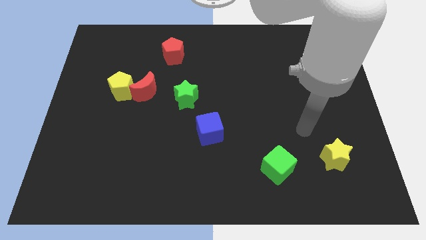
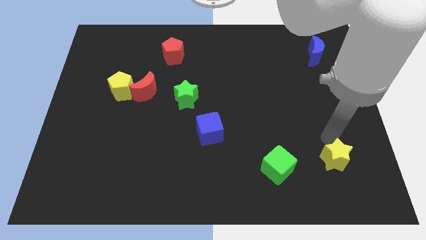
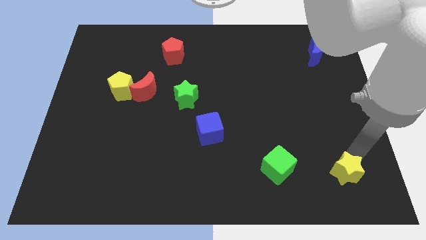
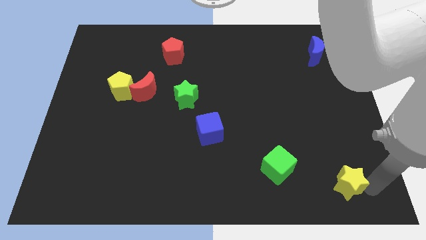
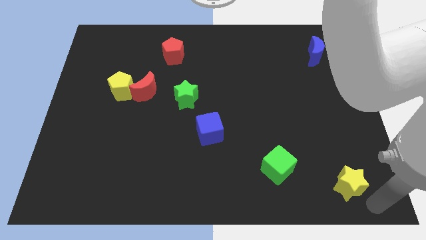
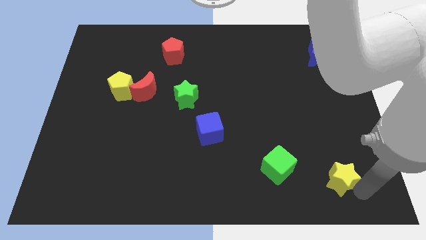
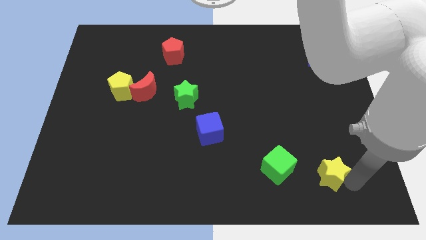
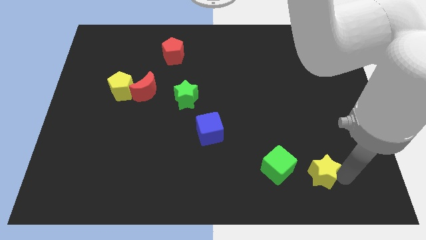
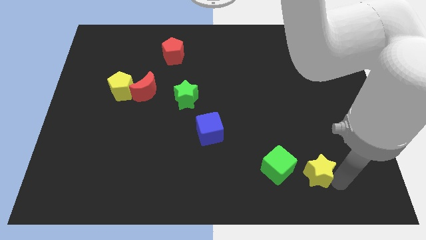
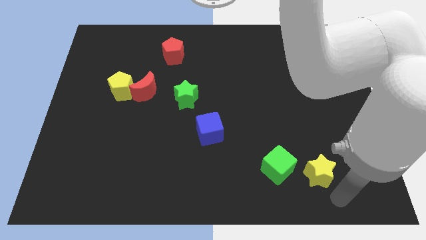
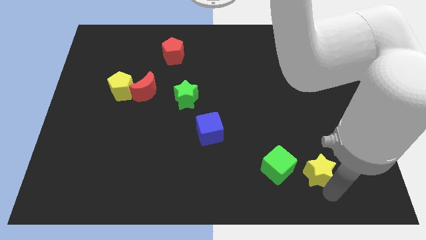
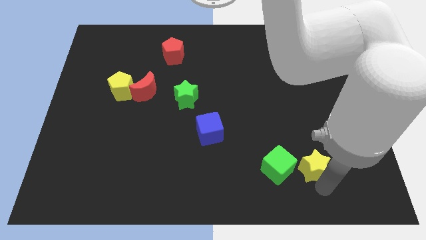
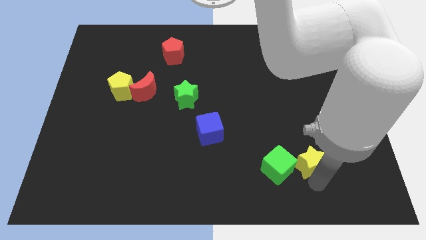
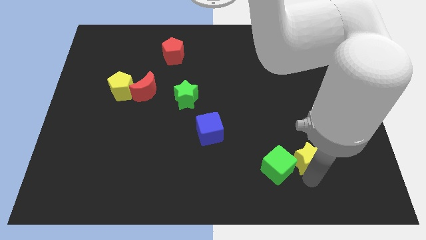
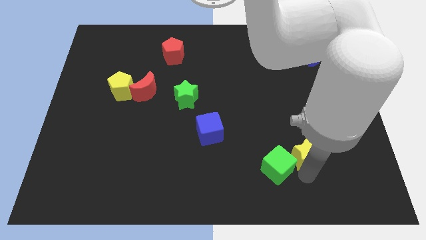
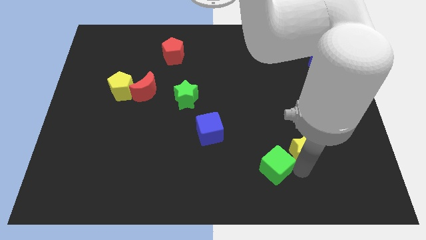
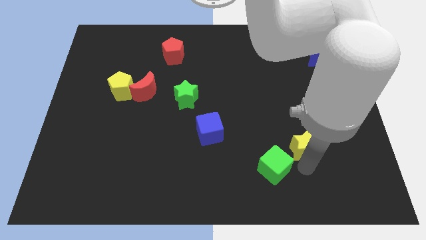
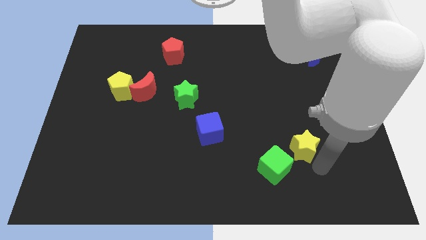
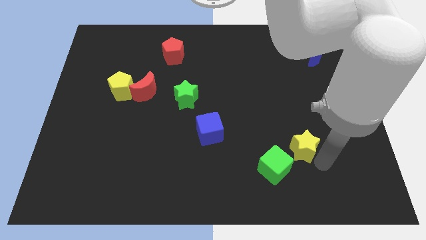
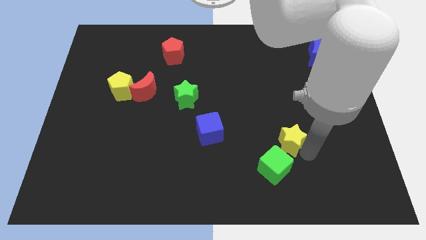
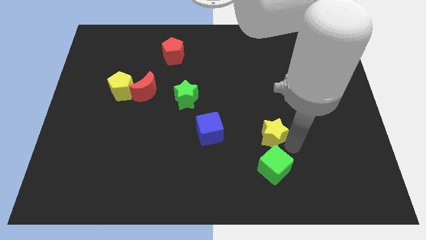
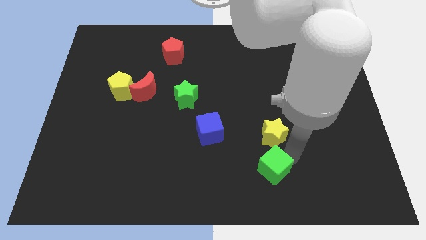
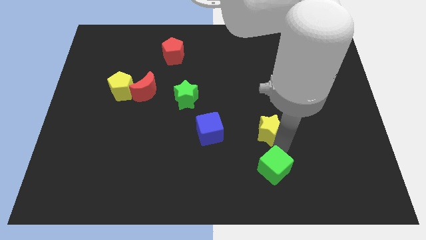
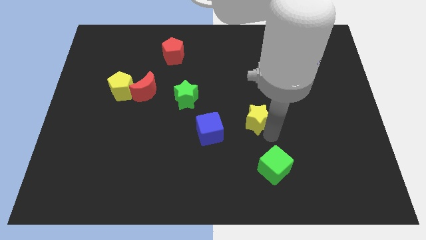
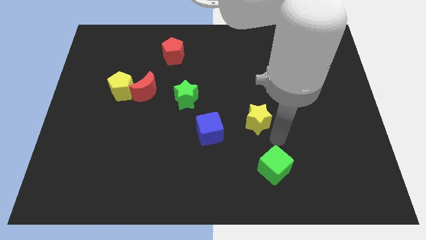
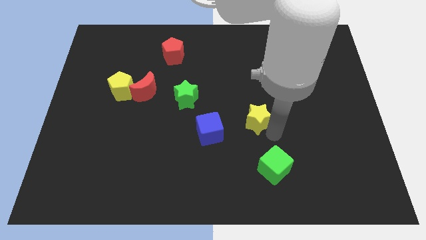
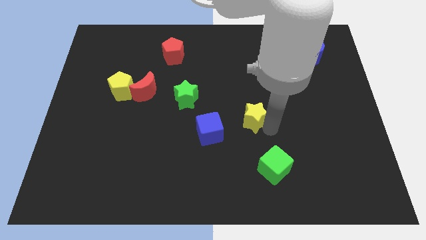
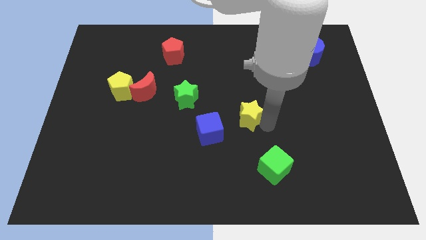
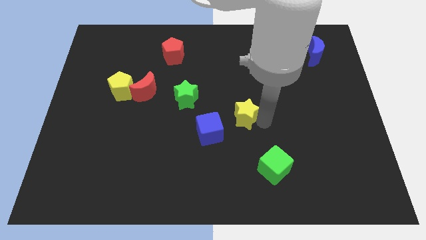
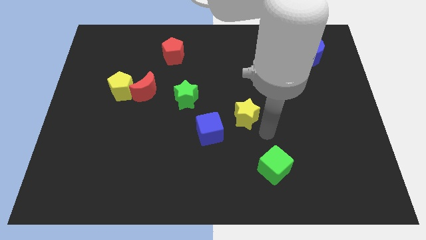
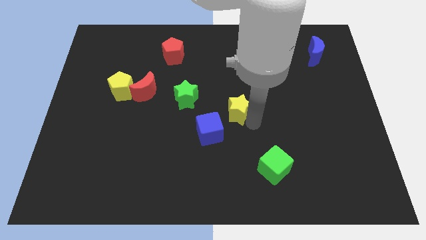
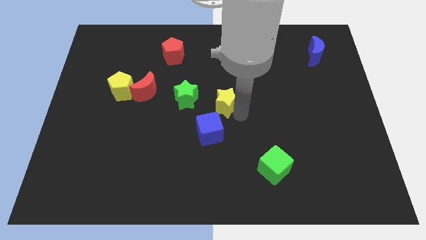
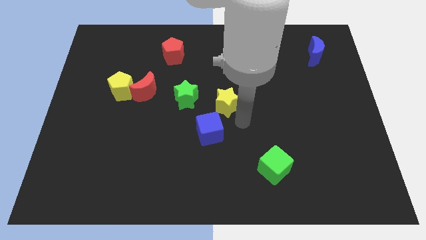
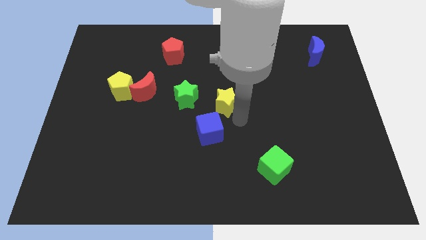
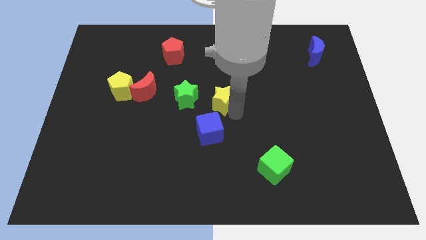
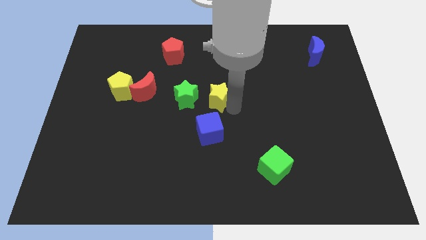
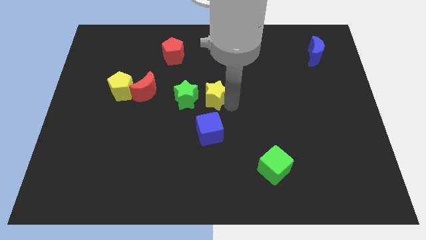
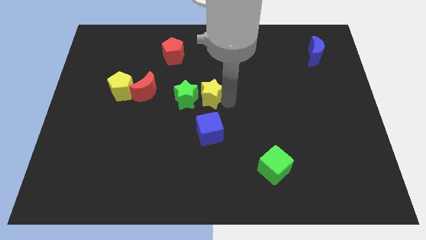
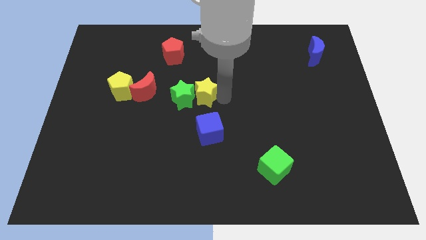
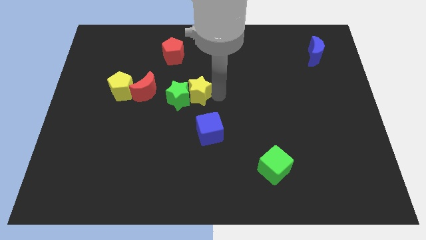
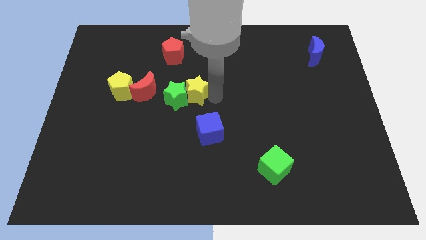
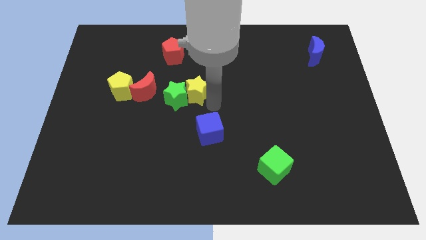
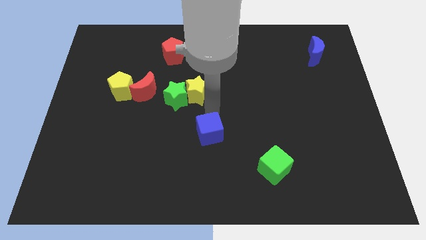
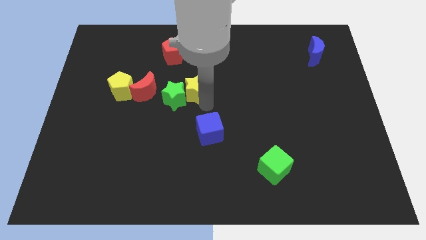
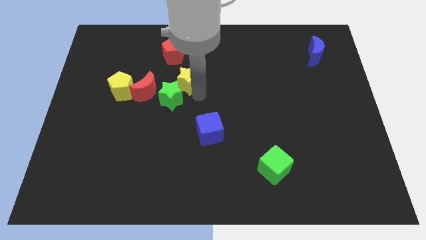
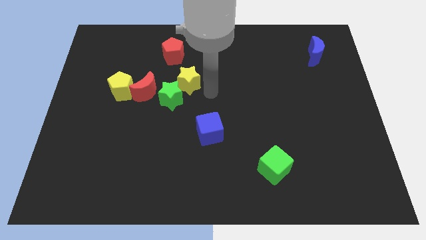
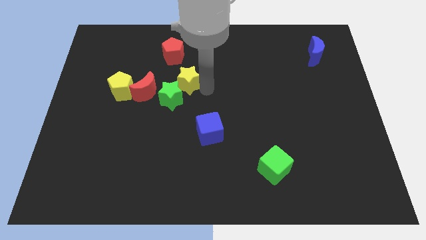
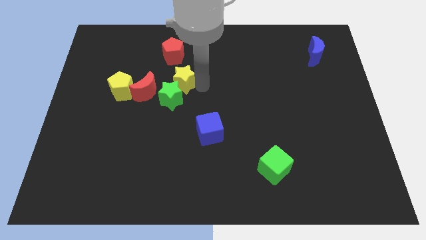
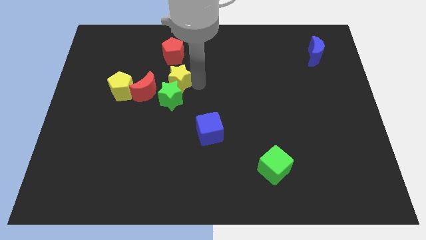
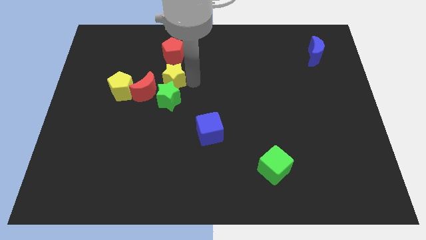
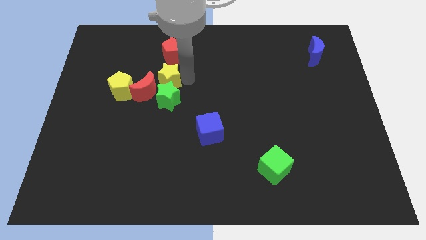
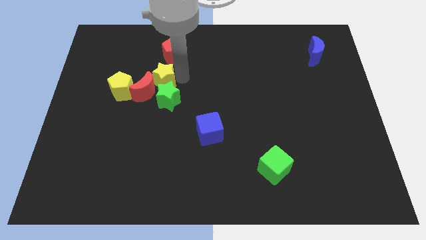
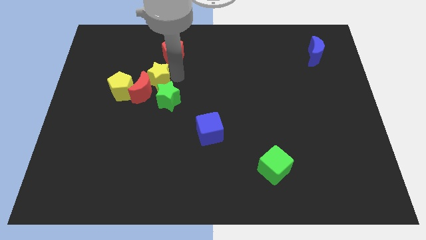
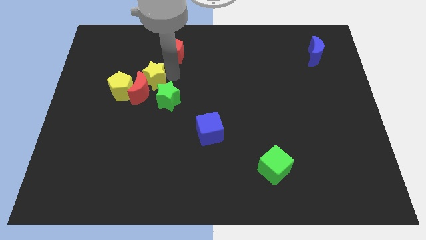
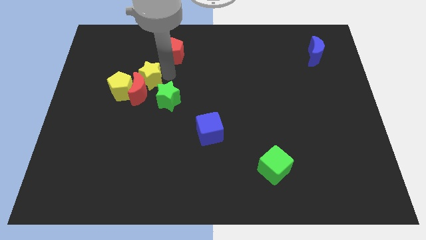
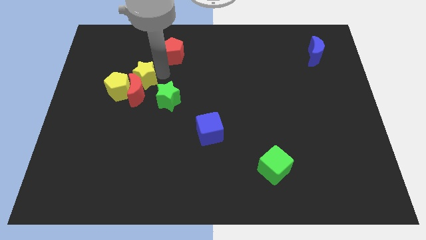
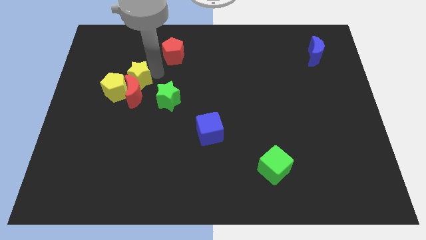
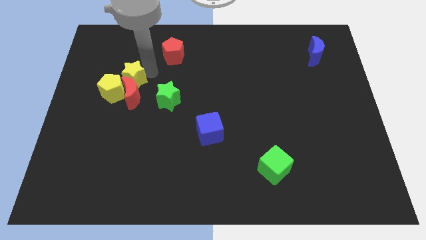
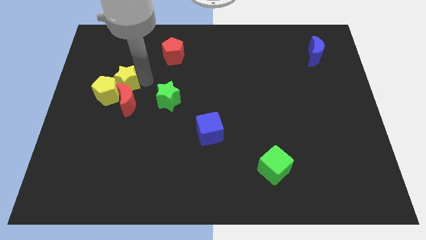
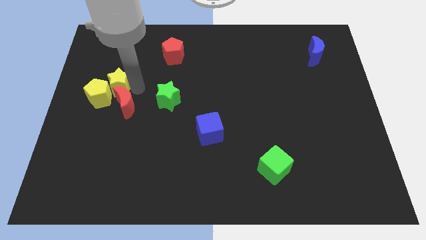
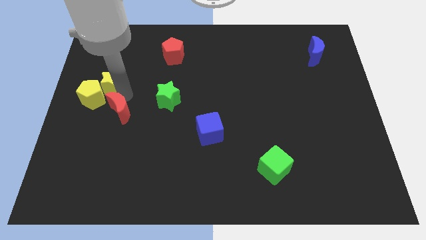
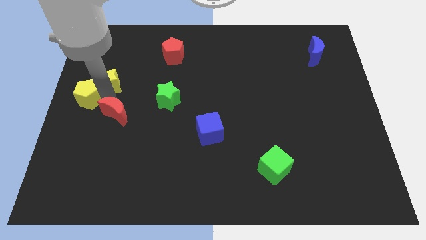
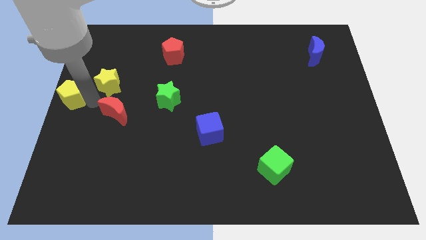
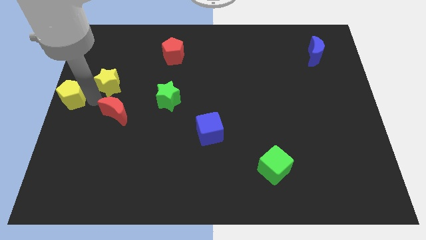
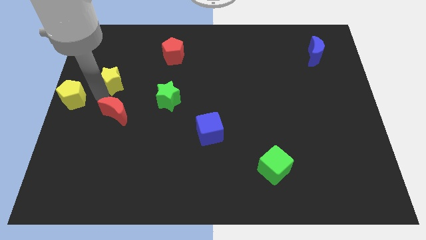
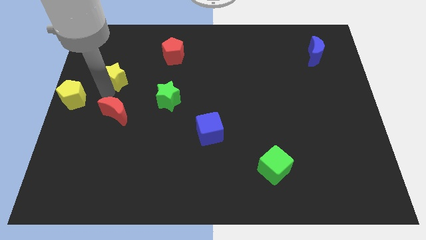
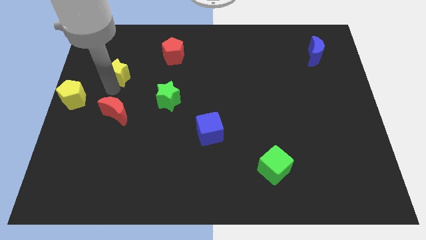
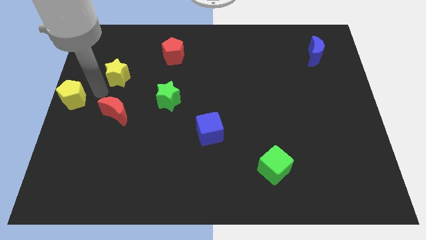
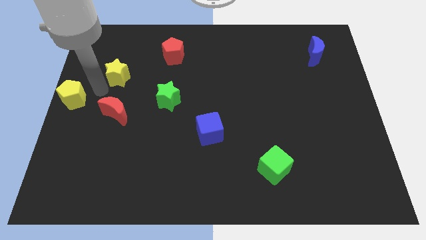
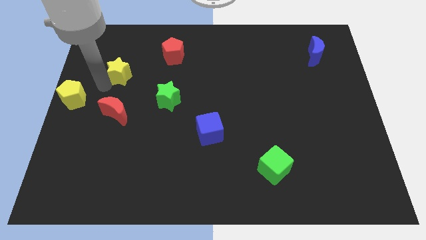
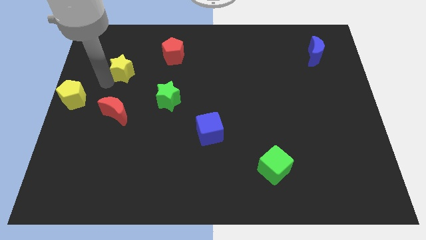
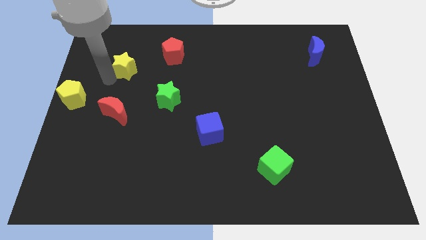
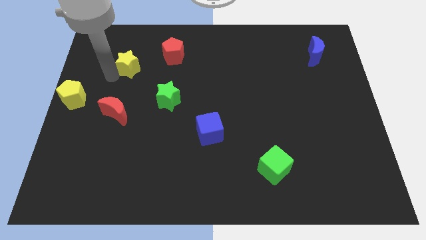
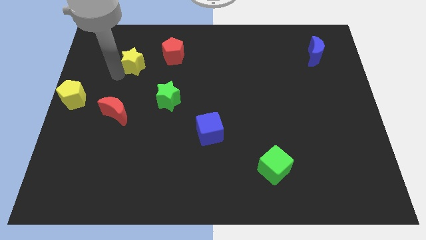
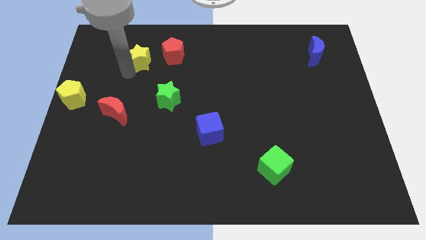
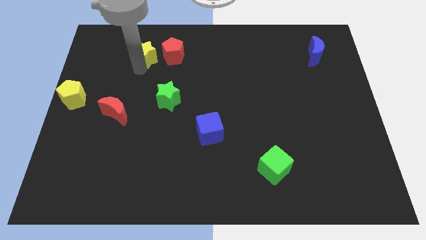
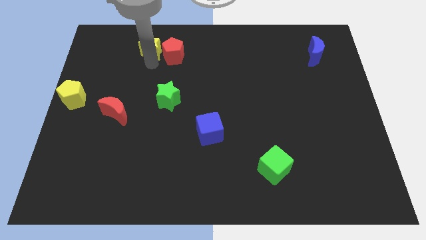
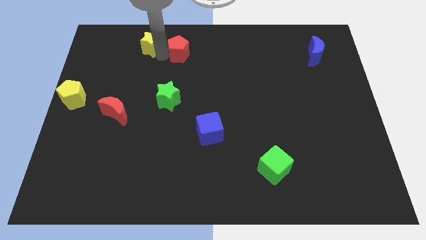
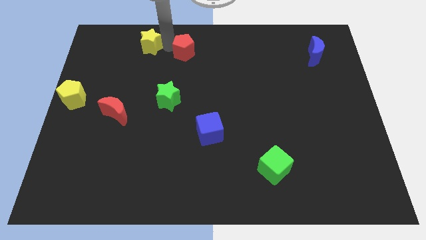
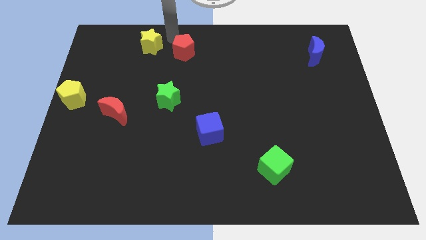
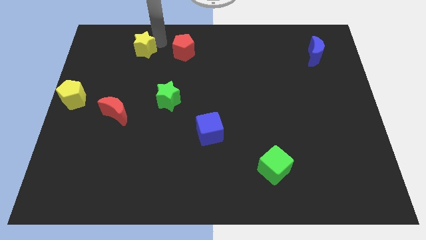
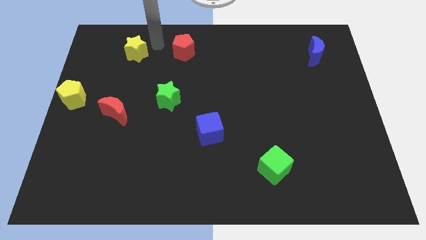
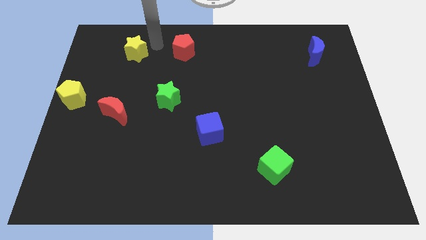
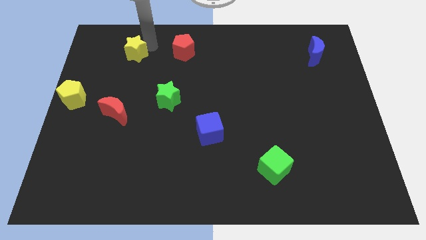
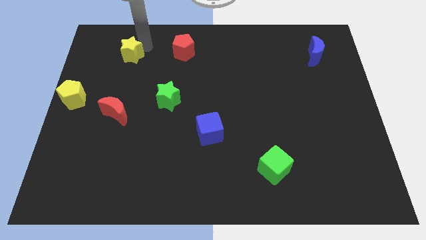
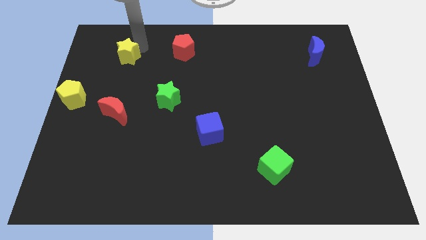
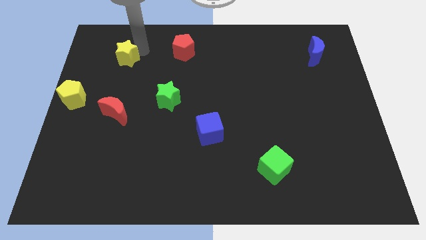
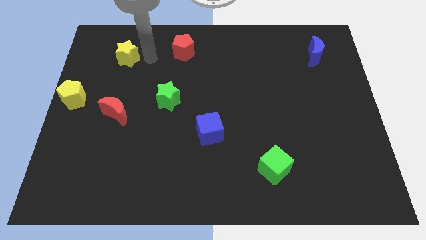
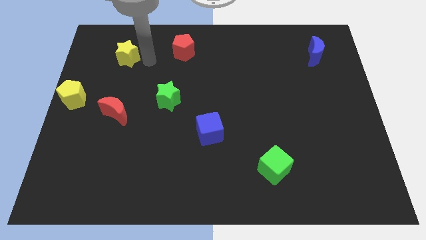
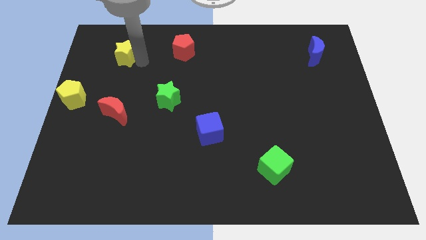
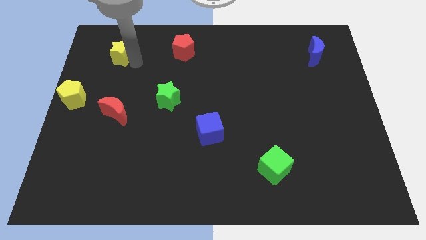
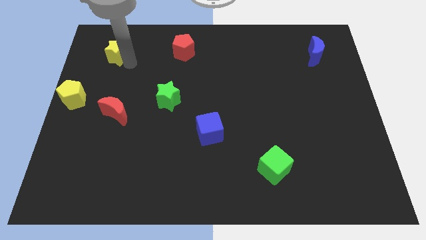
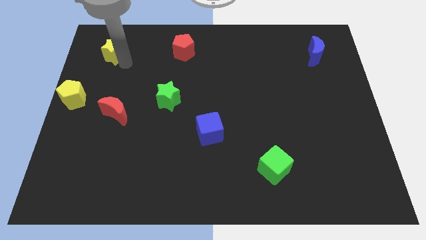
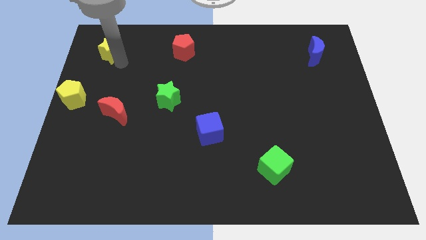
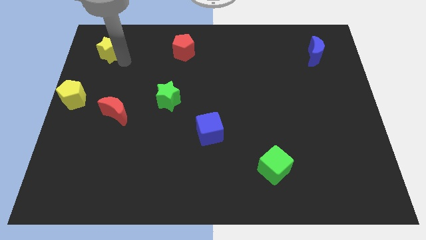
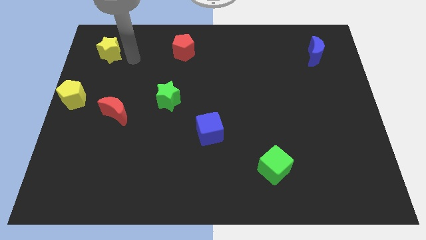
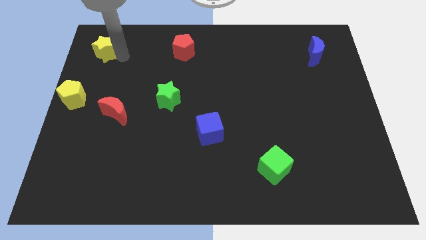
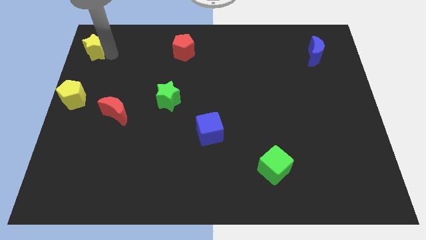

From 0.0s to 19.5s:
slide the yellow star to the top left of the board
